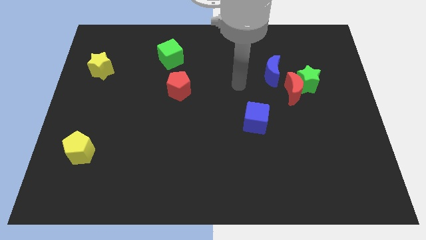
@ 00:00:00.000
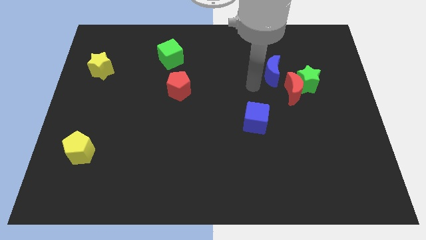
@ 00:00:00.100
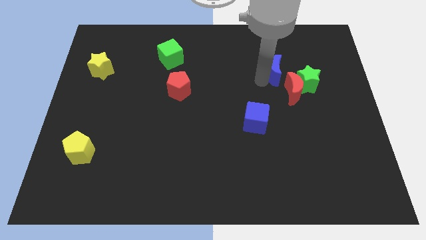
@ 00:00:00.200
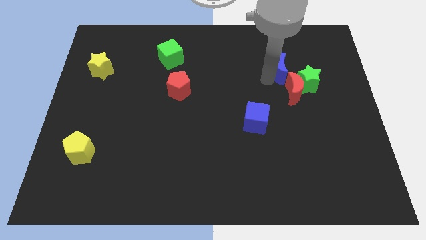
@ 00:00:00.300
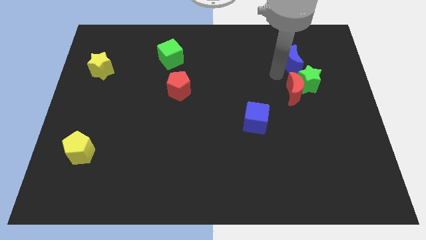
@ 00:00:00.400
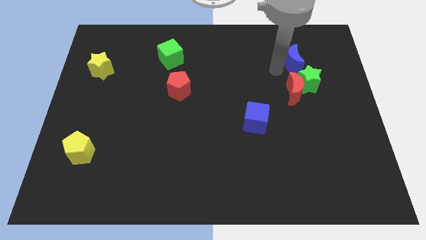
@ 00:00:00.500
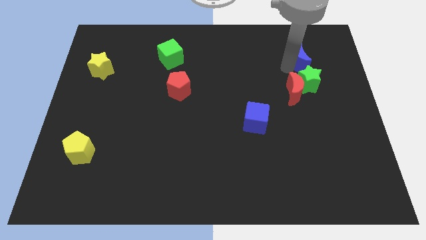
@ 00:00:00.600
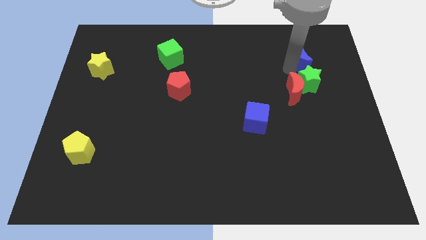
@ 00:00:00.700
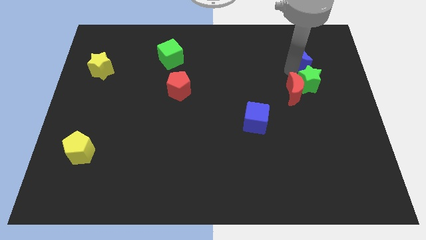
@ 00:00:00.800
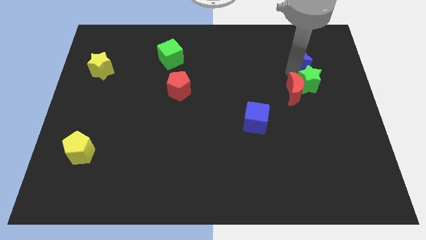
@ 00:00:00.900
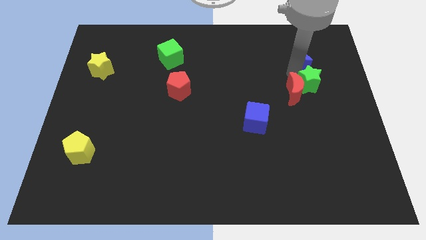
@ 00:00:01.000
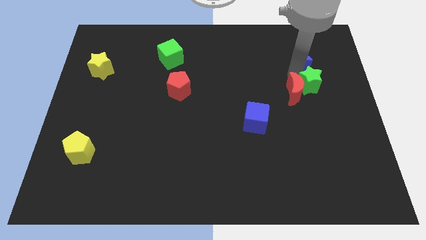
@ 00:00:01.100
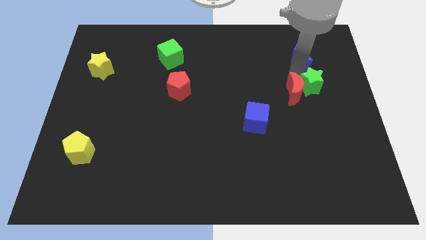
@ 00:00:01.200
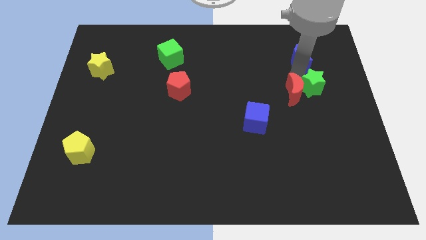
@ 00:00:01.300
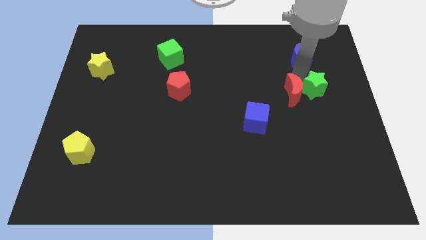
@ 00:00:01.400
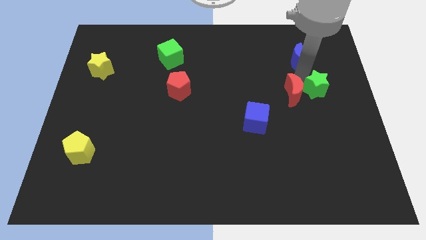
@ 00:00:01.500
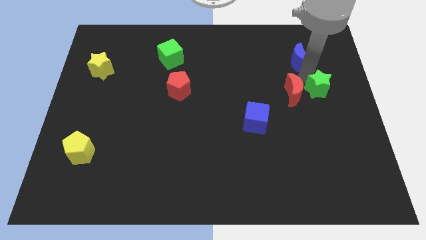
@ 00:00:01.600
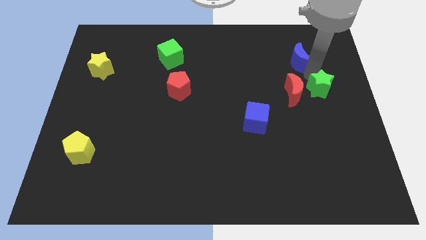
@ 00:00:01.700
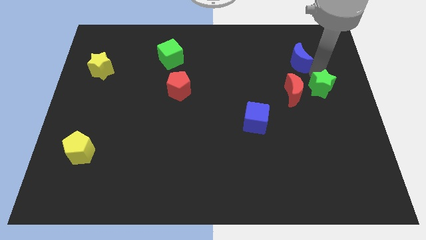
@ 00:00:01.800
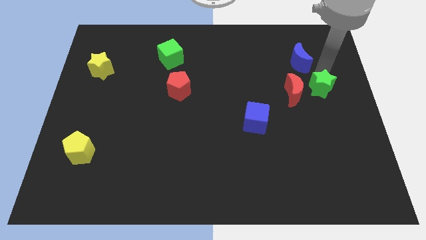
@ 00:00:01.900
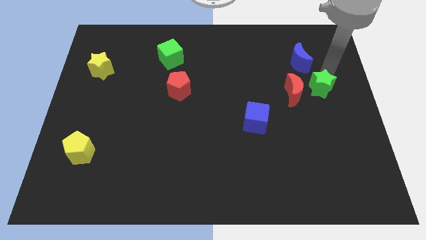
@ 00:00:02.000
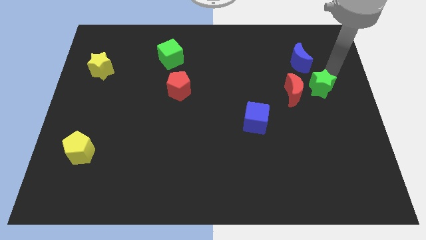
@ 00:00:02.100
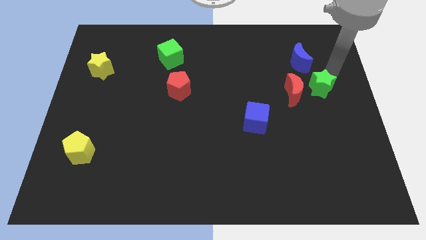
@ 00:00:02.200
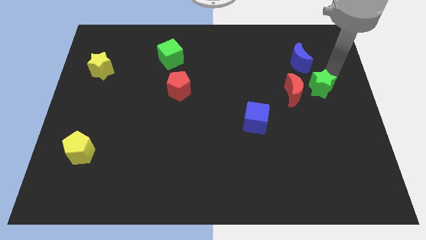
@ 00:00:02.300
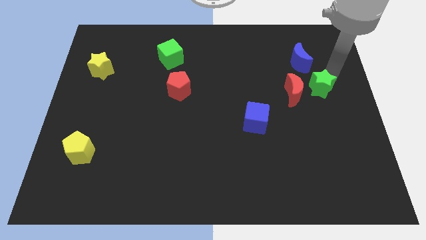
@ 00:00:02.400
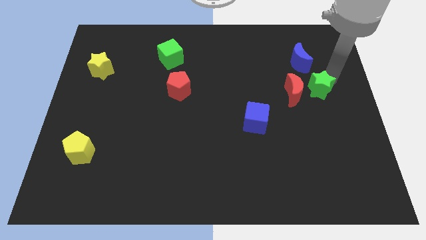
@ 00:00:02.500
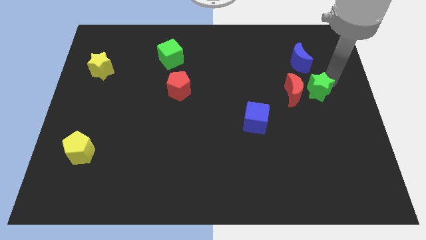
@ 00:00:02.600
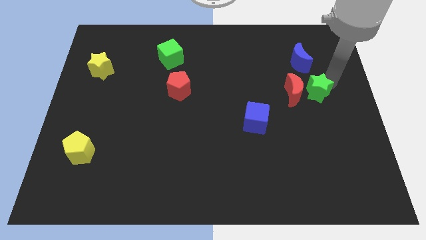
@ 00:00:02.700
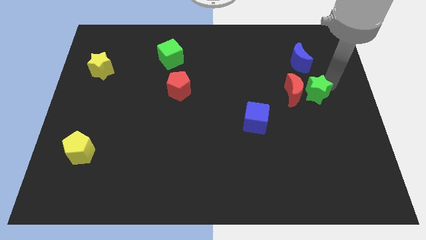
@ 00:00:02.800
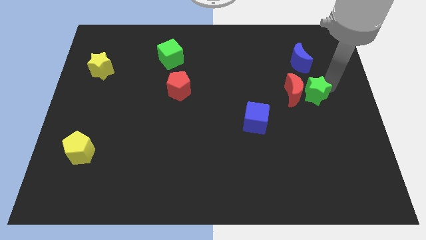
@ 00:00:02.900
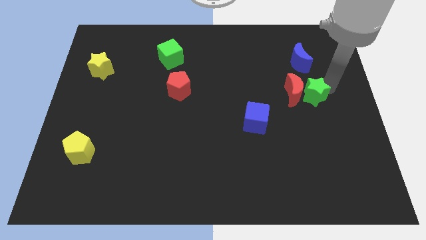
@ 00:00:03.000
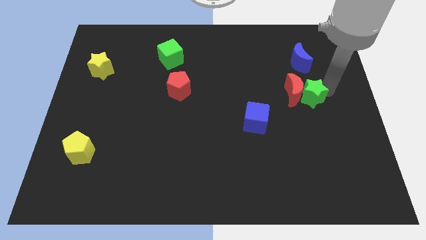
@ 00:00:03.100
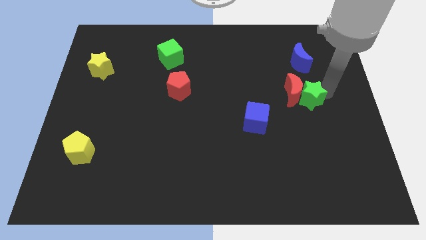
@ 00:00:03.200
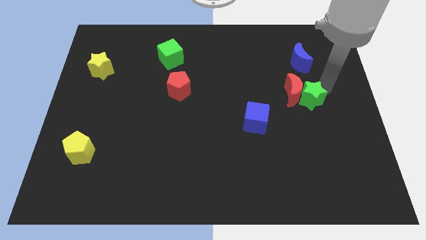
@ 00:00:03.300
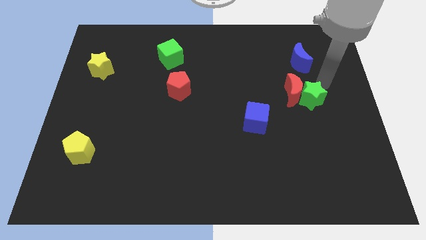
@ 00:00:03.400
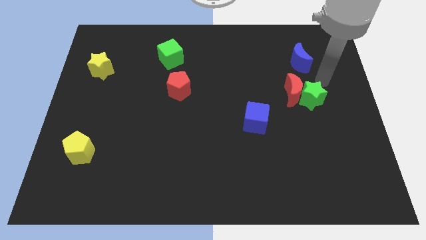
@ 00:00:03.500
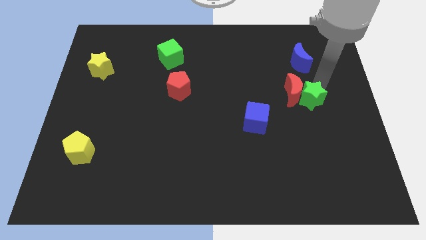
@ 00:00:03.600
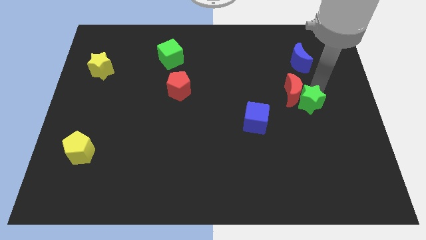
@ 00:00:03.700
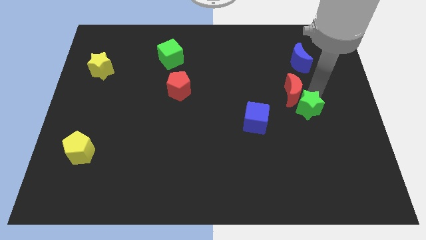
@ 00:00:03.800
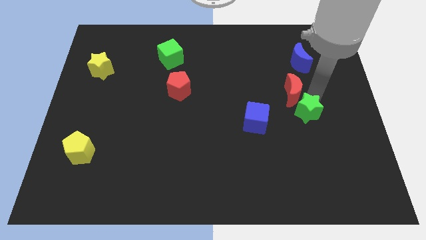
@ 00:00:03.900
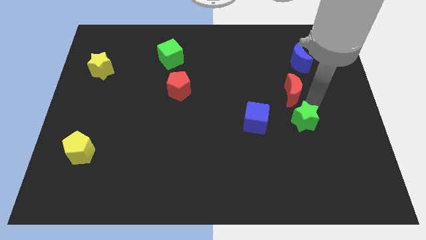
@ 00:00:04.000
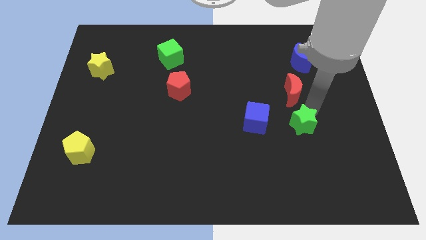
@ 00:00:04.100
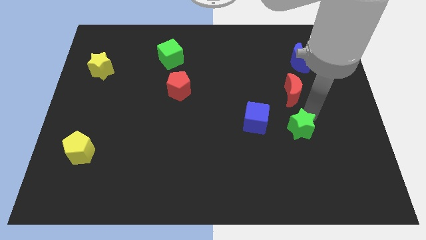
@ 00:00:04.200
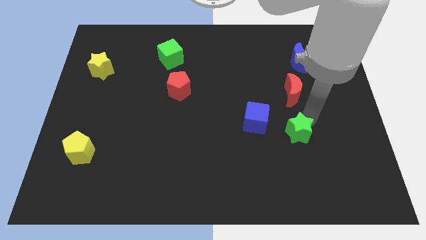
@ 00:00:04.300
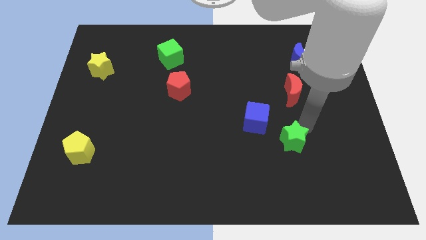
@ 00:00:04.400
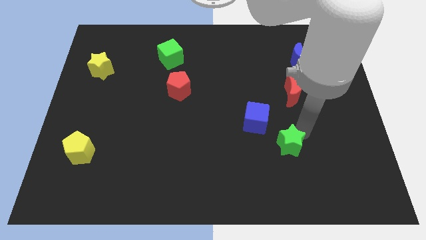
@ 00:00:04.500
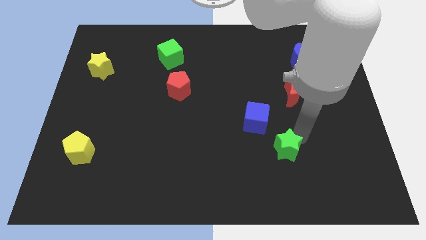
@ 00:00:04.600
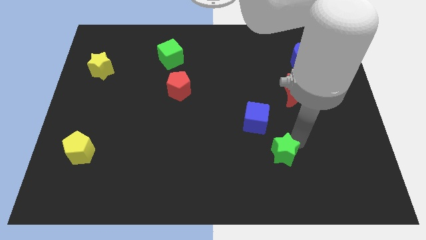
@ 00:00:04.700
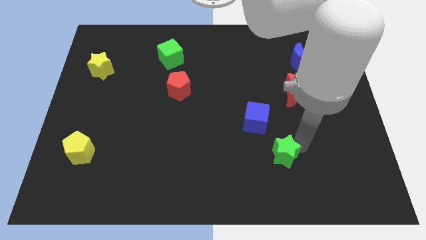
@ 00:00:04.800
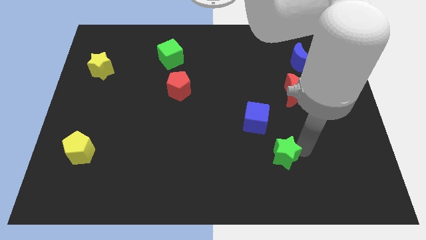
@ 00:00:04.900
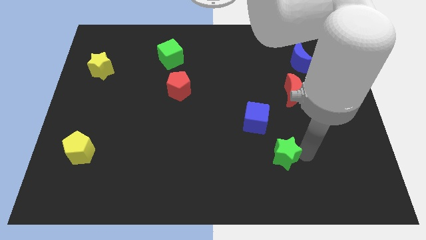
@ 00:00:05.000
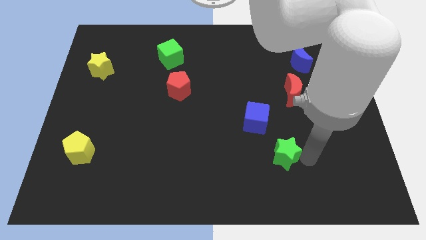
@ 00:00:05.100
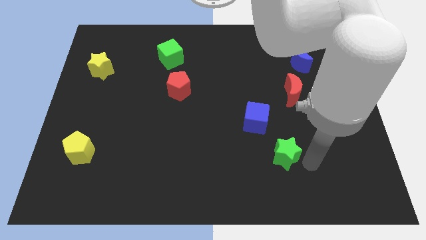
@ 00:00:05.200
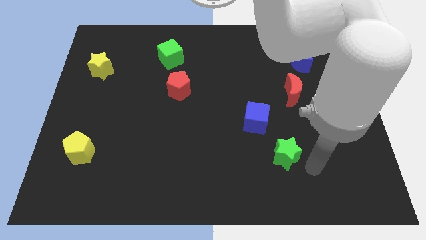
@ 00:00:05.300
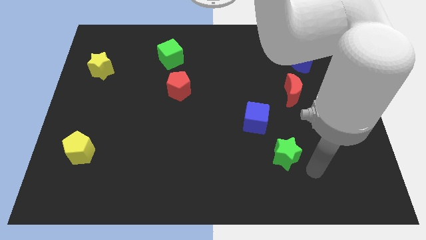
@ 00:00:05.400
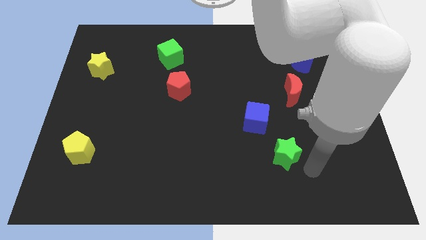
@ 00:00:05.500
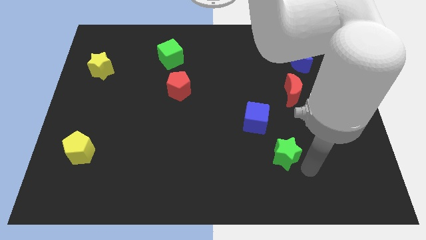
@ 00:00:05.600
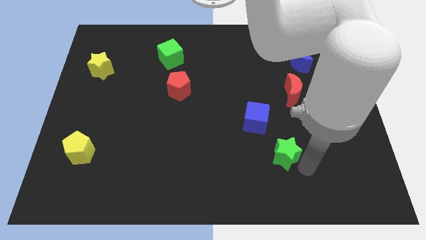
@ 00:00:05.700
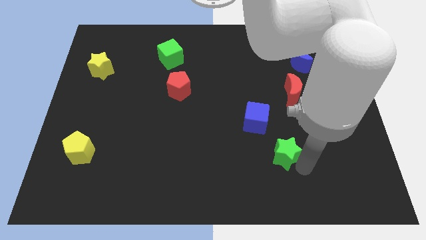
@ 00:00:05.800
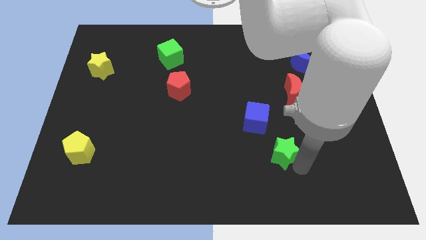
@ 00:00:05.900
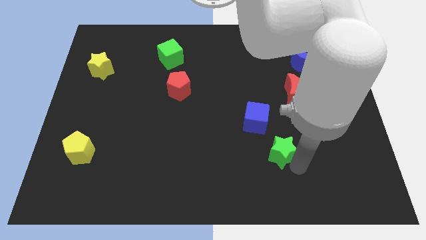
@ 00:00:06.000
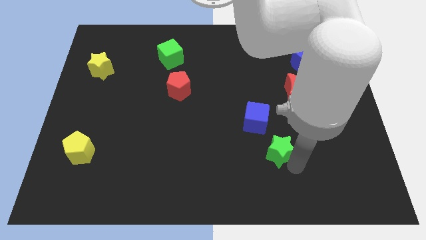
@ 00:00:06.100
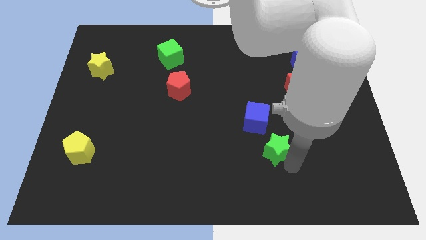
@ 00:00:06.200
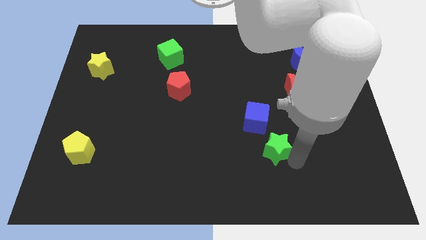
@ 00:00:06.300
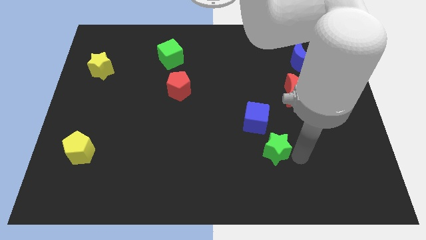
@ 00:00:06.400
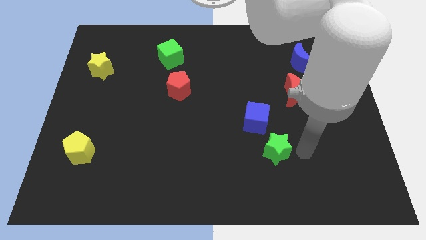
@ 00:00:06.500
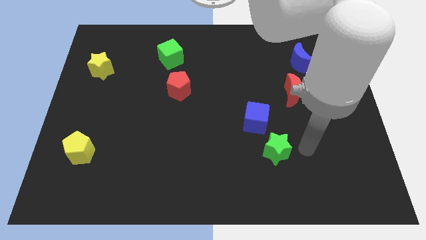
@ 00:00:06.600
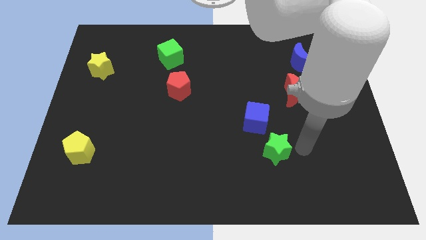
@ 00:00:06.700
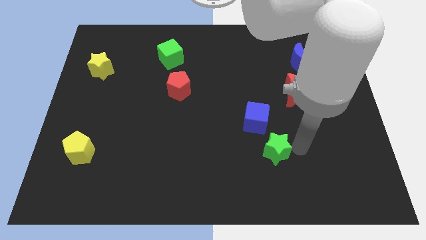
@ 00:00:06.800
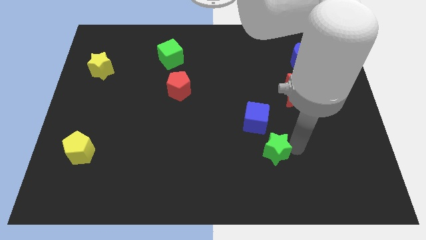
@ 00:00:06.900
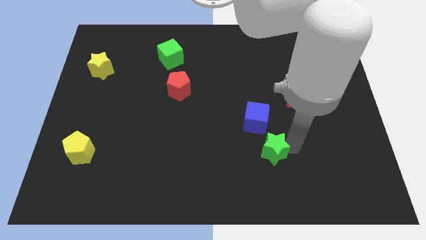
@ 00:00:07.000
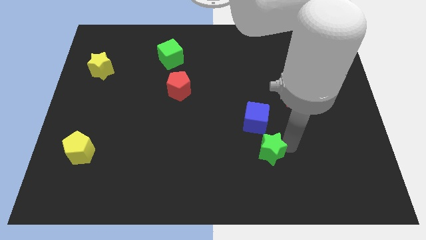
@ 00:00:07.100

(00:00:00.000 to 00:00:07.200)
push the green star downwards and then left

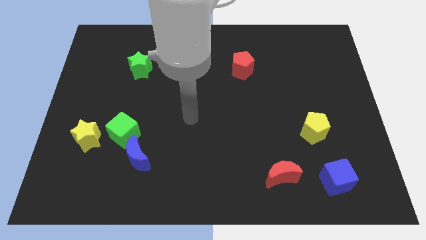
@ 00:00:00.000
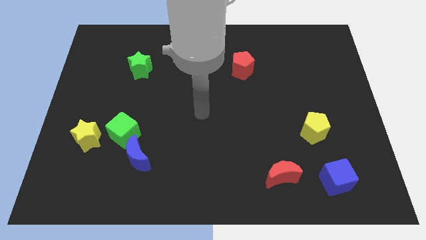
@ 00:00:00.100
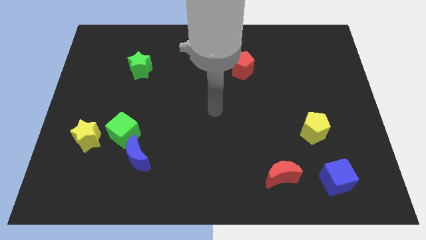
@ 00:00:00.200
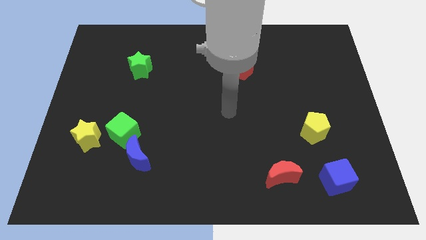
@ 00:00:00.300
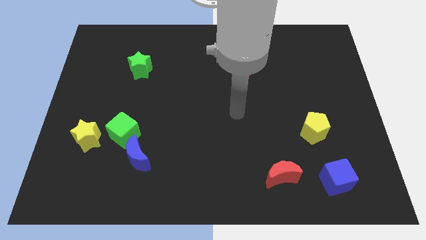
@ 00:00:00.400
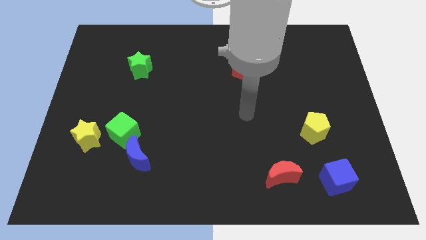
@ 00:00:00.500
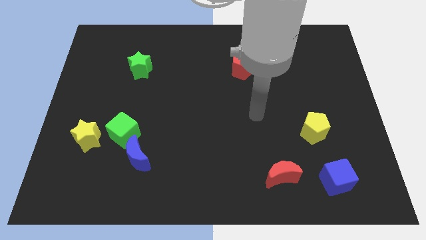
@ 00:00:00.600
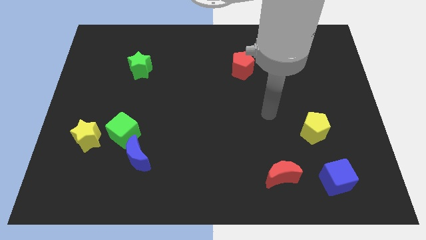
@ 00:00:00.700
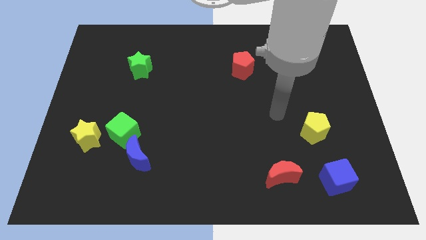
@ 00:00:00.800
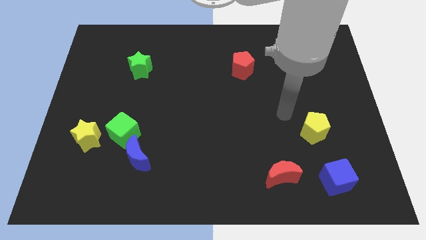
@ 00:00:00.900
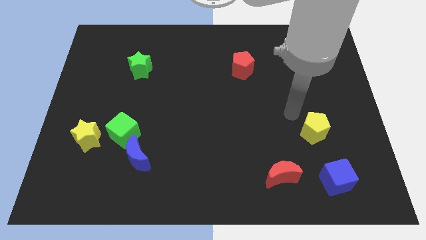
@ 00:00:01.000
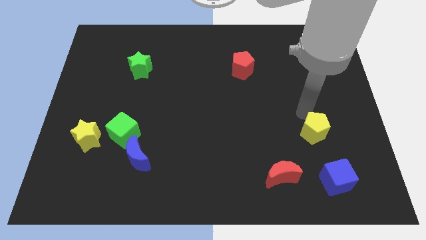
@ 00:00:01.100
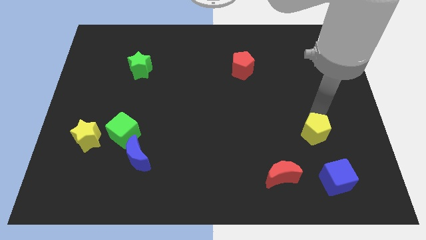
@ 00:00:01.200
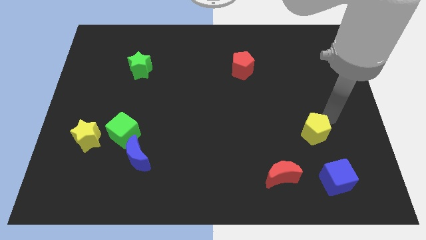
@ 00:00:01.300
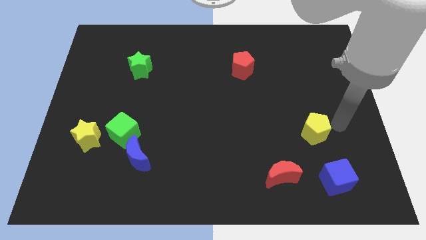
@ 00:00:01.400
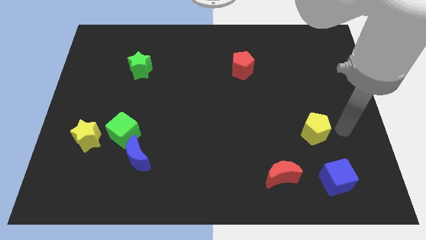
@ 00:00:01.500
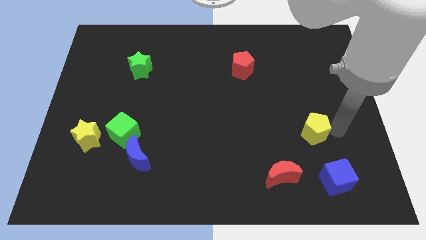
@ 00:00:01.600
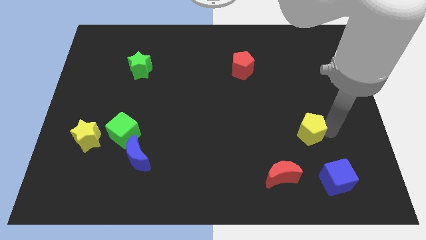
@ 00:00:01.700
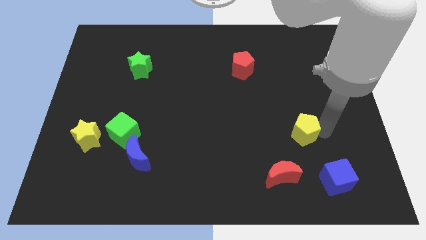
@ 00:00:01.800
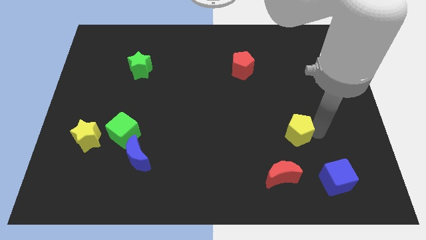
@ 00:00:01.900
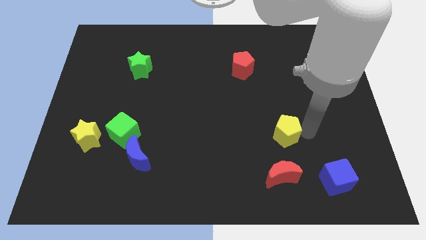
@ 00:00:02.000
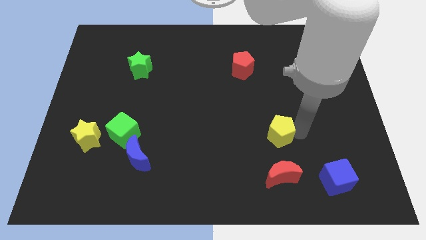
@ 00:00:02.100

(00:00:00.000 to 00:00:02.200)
push the yellow pentagon to the left slightly
